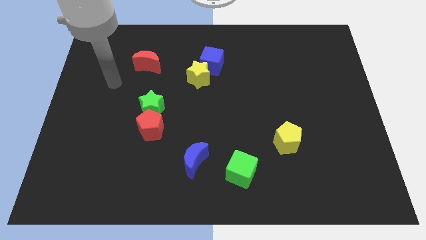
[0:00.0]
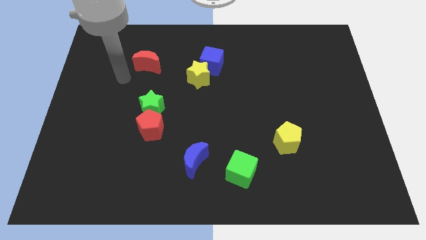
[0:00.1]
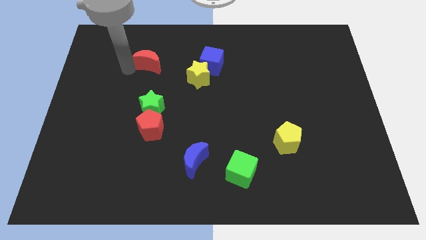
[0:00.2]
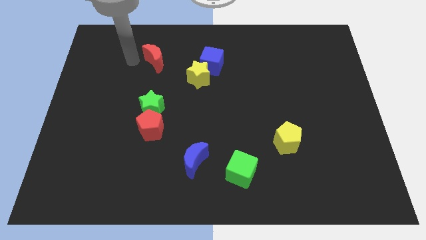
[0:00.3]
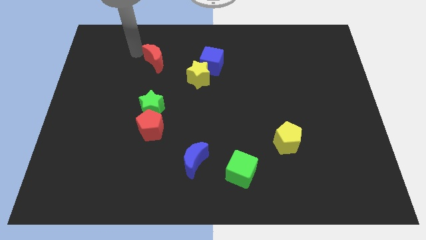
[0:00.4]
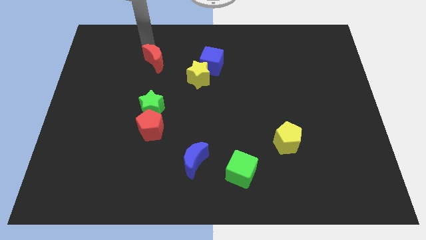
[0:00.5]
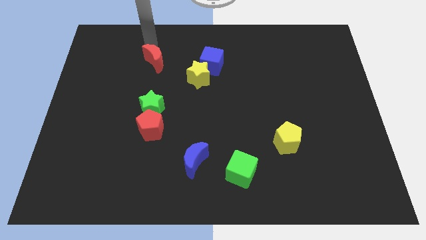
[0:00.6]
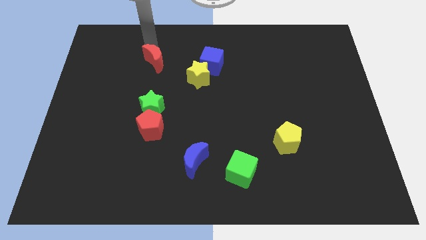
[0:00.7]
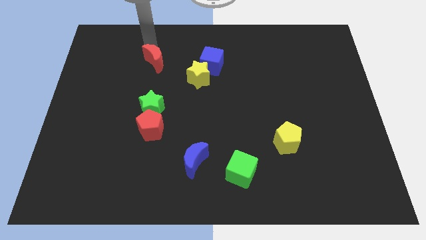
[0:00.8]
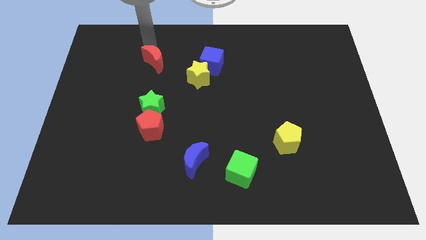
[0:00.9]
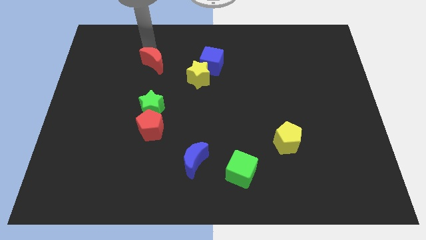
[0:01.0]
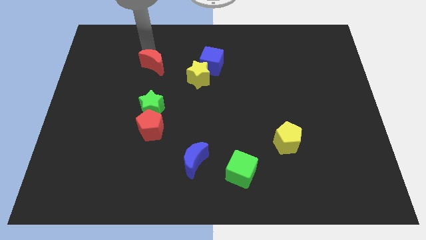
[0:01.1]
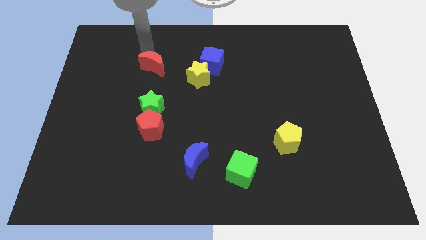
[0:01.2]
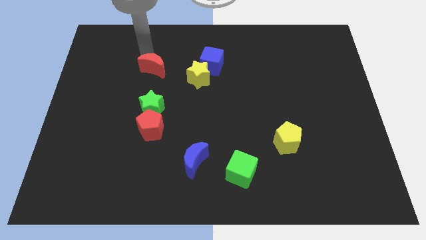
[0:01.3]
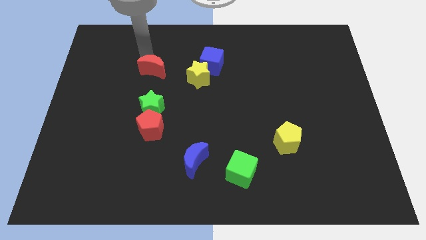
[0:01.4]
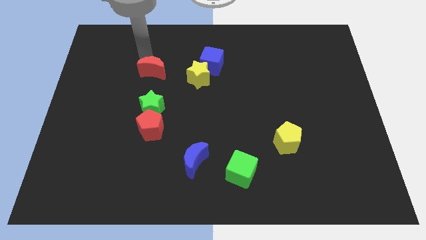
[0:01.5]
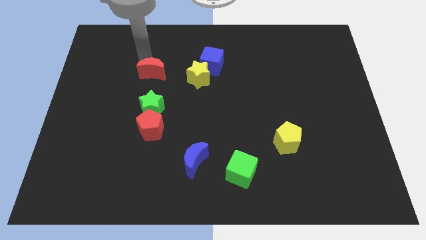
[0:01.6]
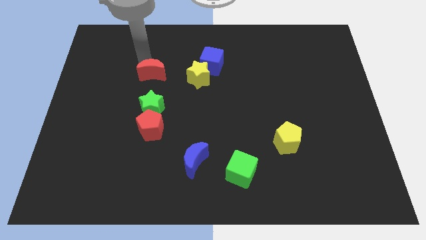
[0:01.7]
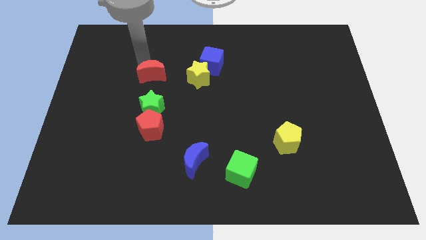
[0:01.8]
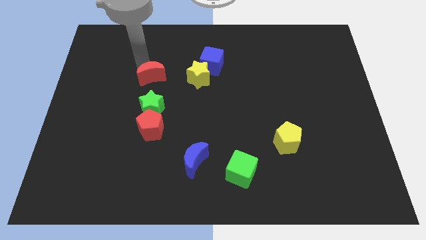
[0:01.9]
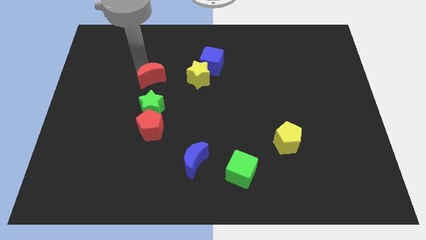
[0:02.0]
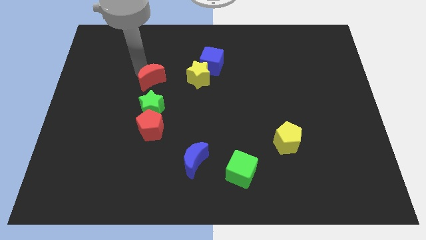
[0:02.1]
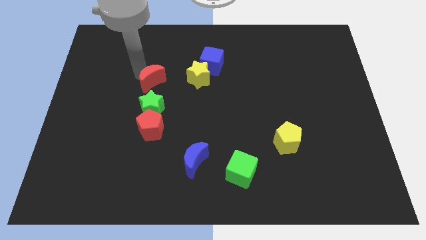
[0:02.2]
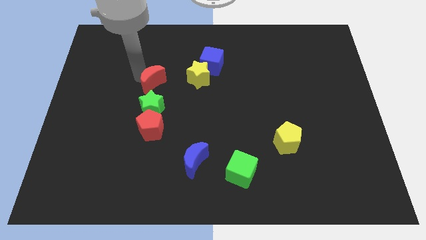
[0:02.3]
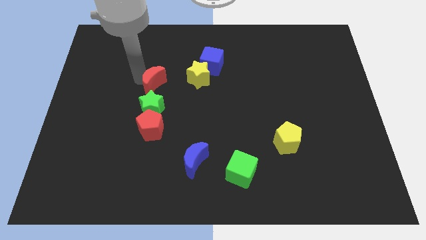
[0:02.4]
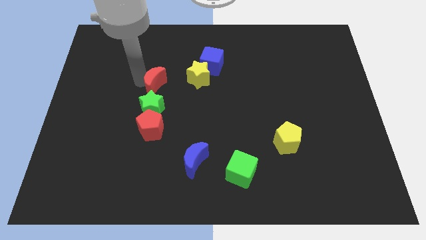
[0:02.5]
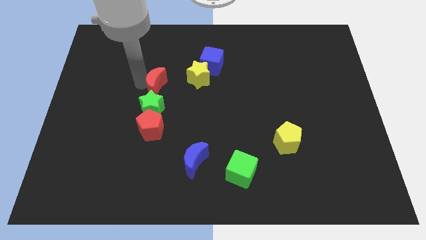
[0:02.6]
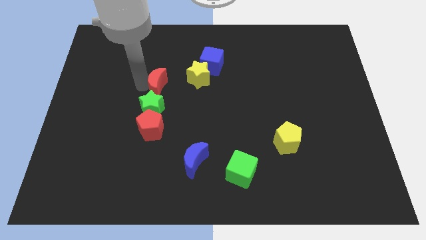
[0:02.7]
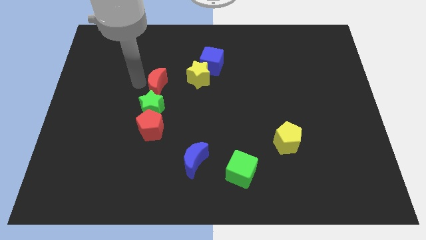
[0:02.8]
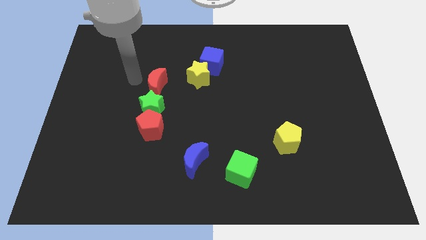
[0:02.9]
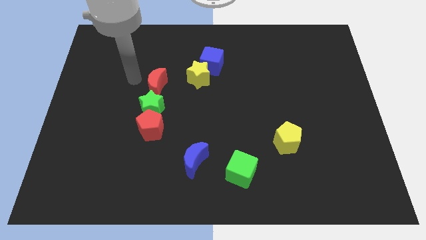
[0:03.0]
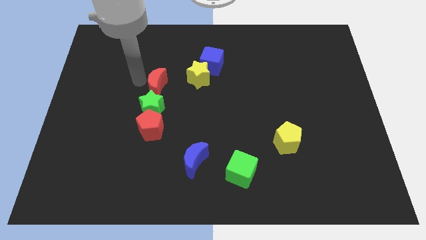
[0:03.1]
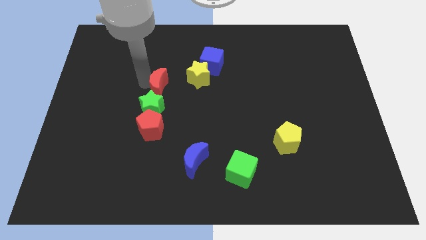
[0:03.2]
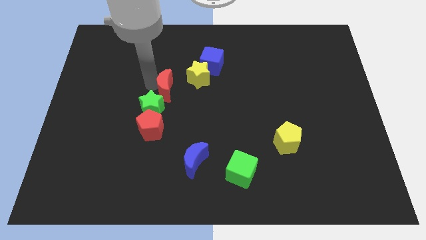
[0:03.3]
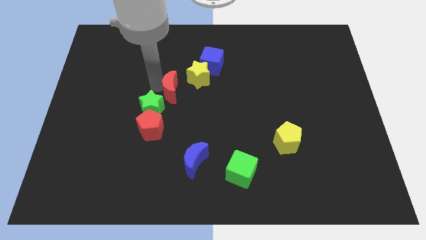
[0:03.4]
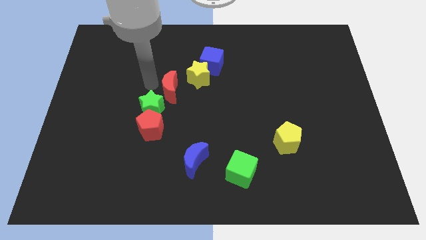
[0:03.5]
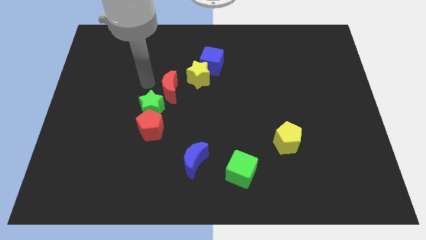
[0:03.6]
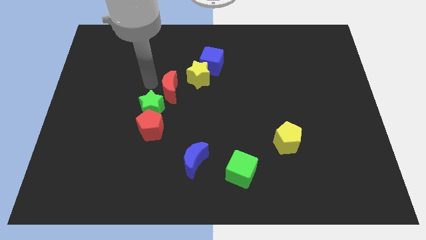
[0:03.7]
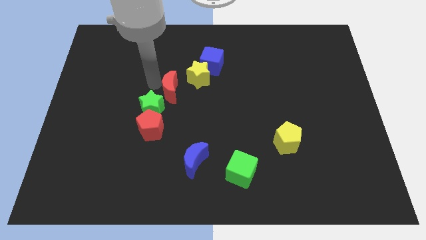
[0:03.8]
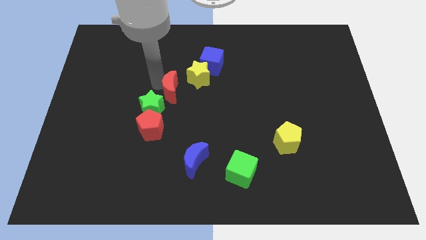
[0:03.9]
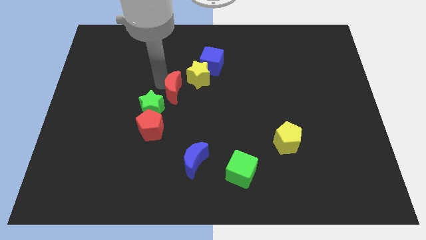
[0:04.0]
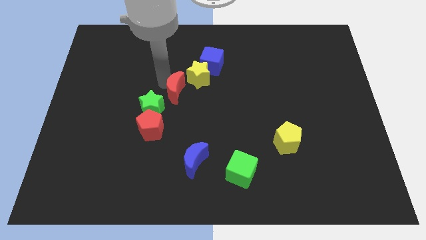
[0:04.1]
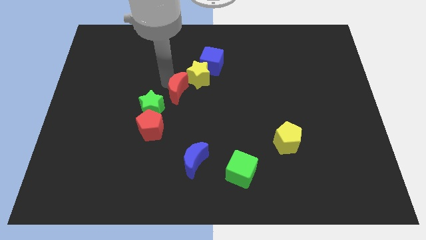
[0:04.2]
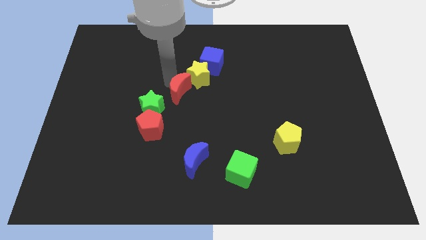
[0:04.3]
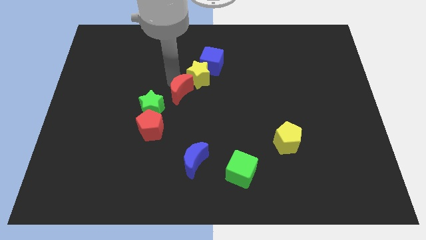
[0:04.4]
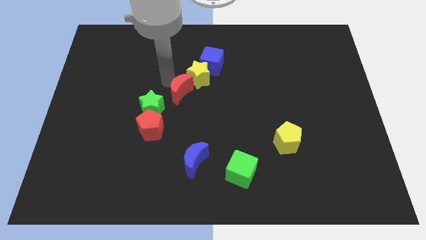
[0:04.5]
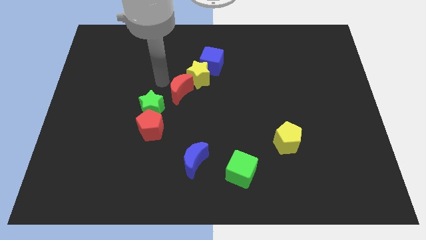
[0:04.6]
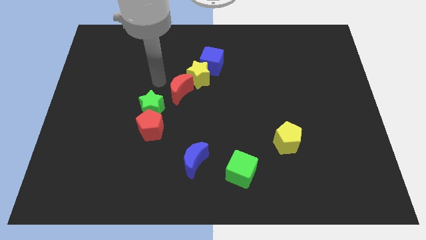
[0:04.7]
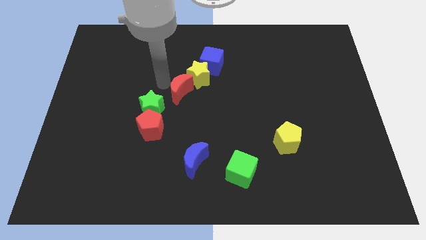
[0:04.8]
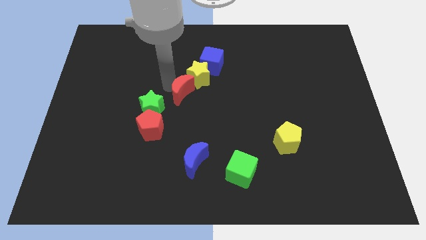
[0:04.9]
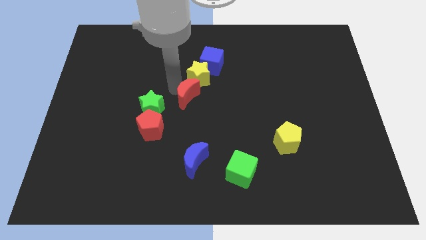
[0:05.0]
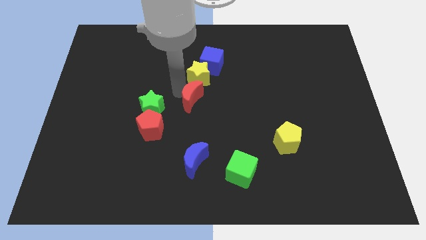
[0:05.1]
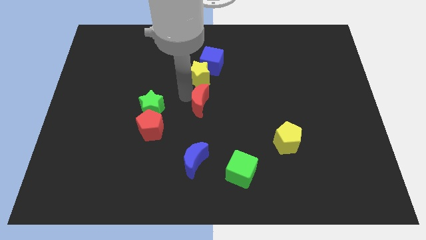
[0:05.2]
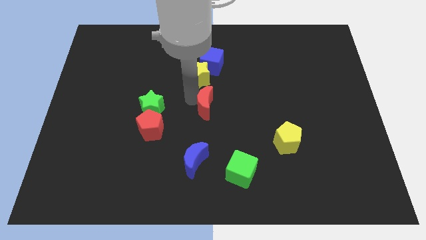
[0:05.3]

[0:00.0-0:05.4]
slide the red moon down and right diagonally

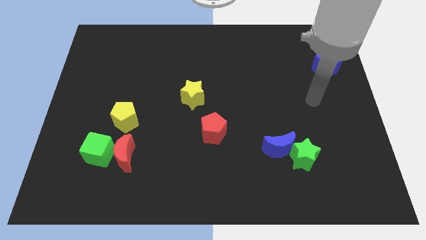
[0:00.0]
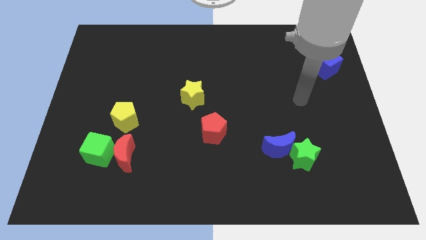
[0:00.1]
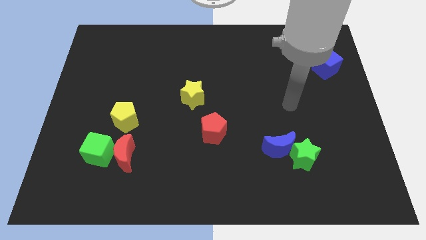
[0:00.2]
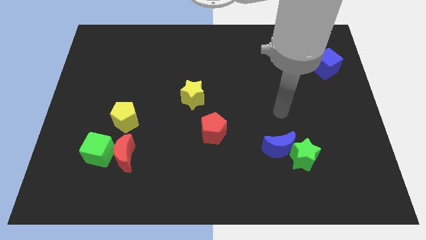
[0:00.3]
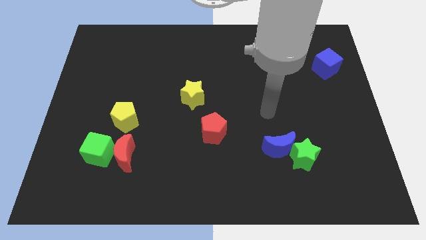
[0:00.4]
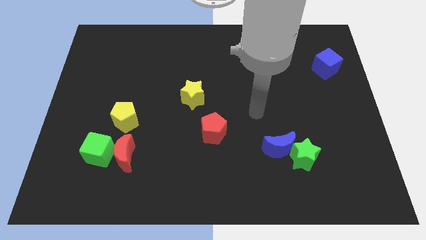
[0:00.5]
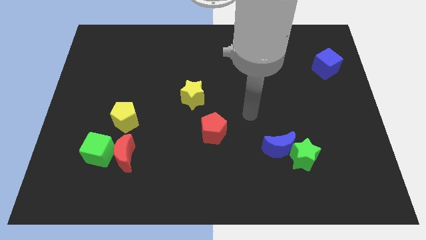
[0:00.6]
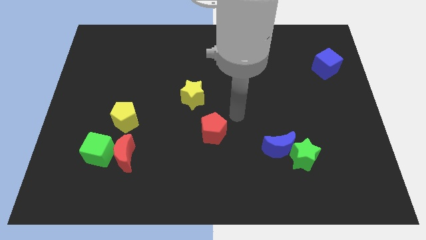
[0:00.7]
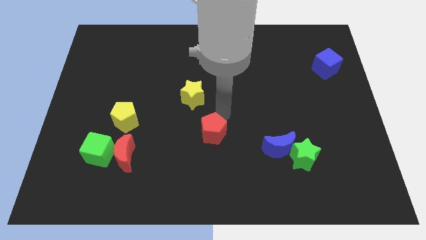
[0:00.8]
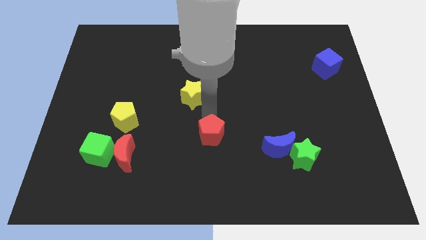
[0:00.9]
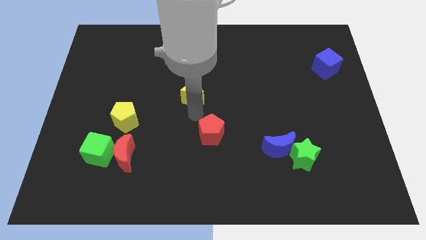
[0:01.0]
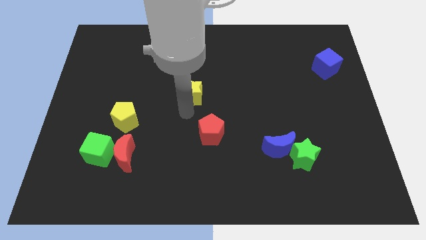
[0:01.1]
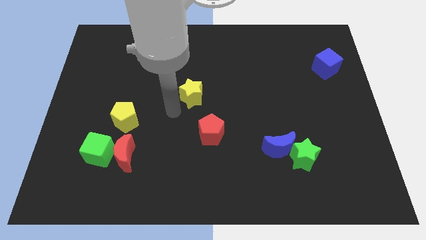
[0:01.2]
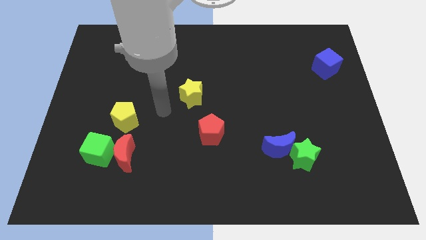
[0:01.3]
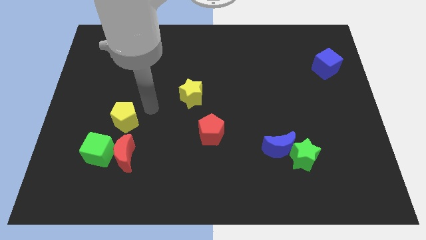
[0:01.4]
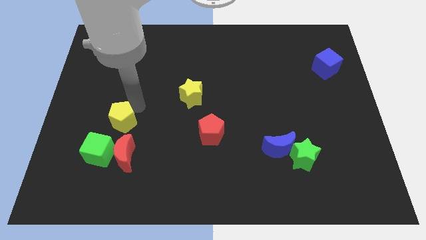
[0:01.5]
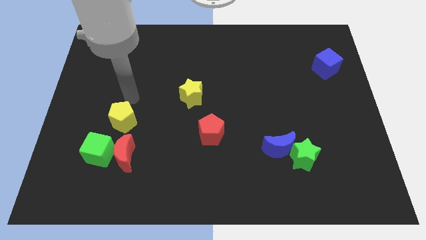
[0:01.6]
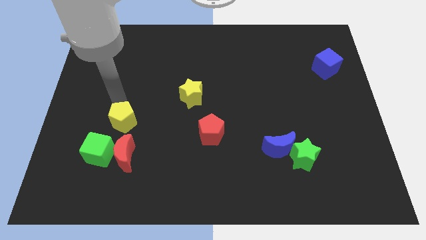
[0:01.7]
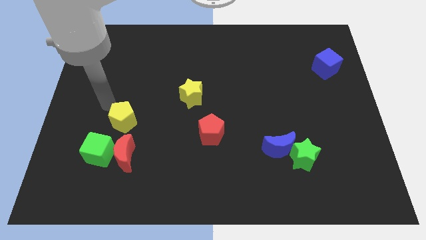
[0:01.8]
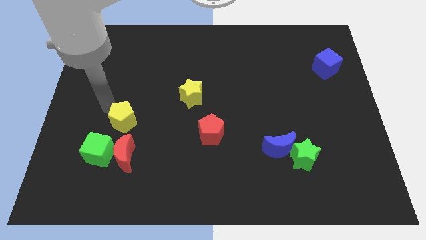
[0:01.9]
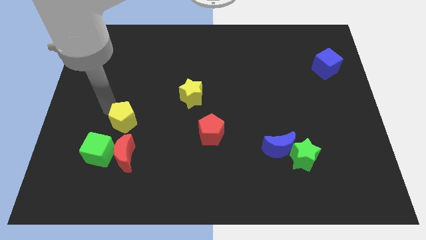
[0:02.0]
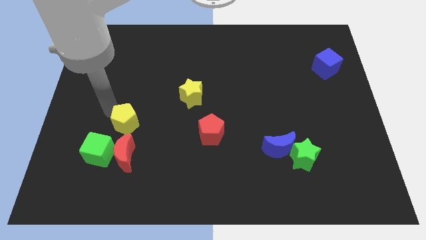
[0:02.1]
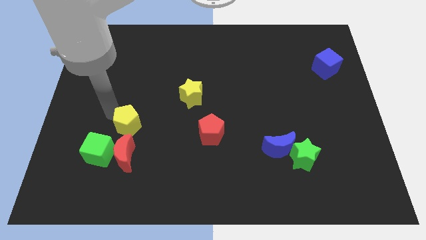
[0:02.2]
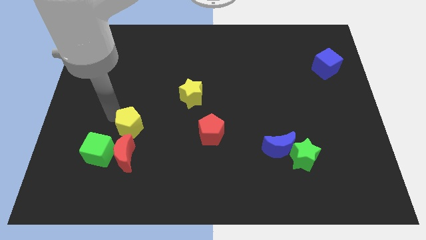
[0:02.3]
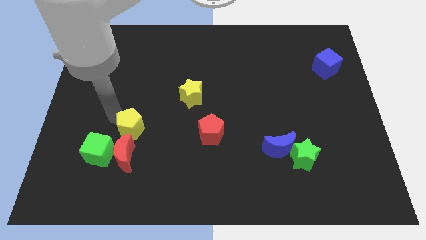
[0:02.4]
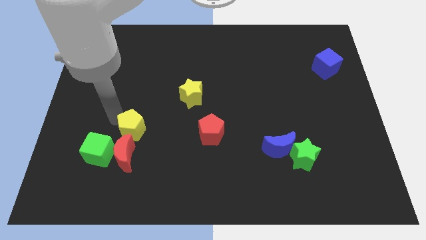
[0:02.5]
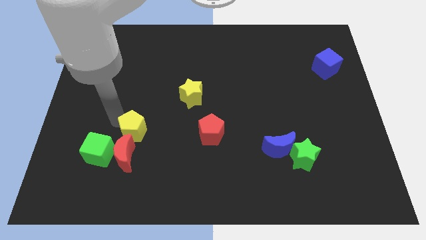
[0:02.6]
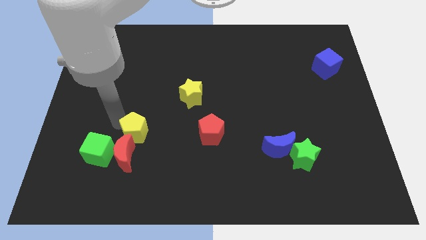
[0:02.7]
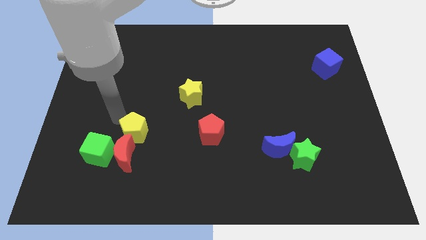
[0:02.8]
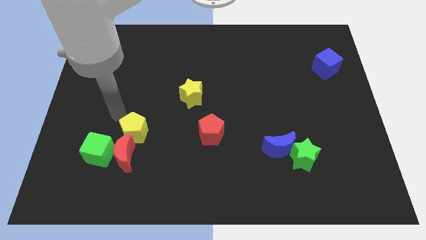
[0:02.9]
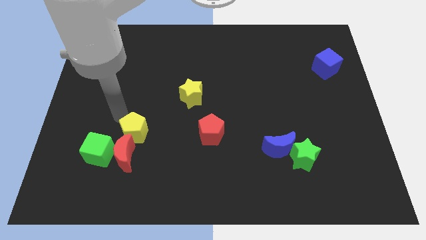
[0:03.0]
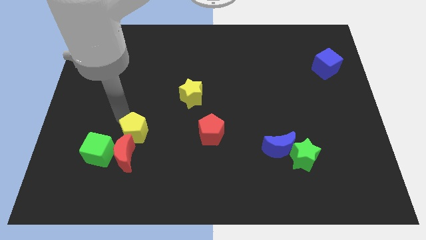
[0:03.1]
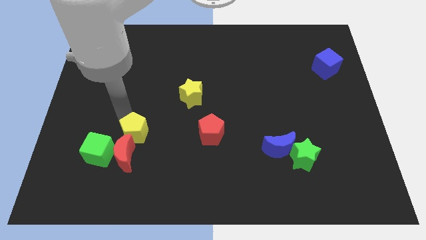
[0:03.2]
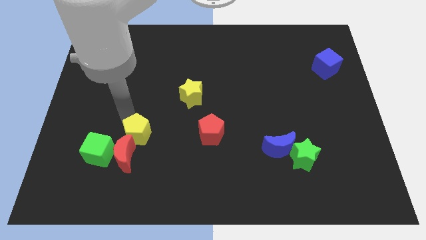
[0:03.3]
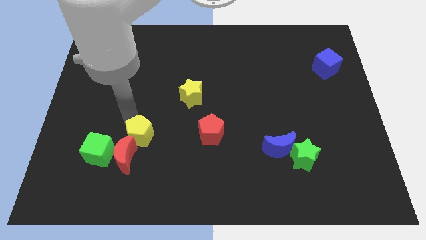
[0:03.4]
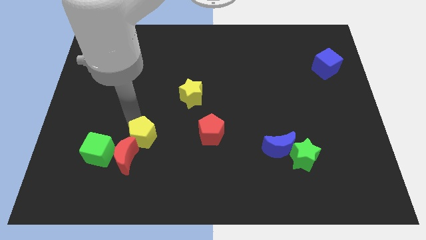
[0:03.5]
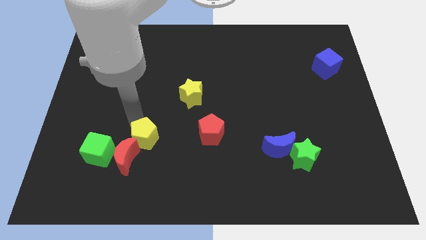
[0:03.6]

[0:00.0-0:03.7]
slightly push the yellow pentagon down and to the right diagonally
